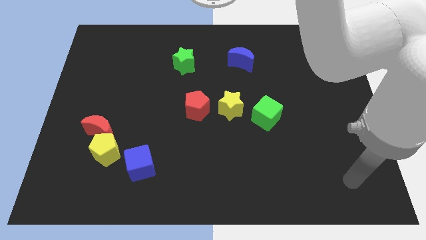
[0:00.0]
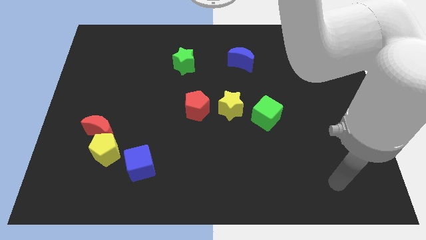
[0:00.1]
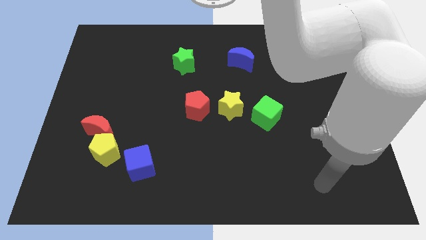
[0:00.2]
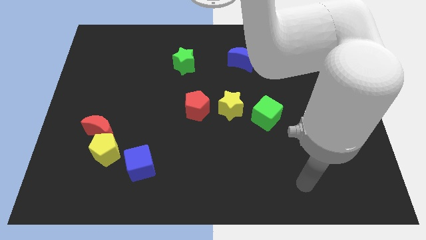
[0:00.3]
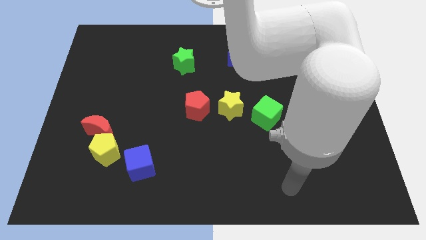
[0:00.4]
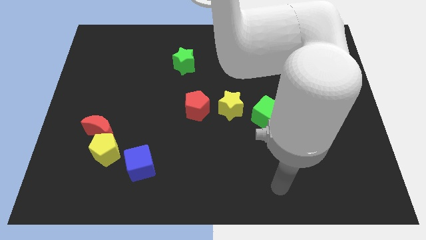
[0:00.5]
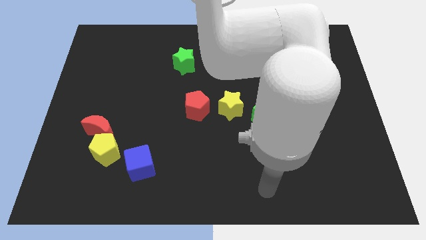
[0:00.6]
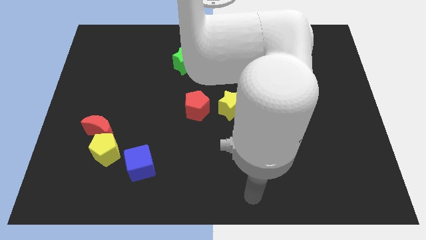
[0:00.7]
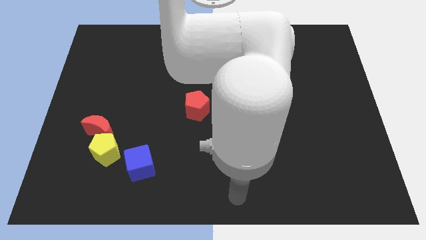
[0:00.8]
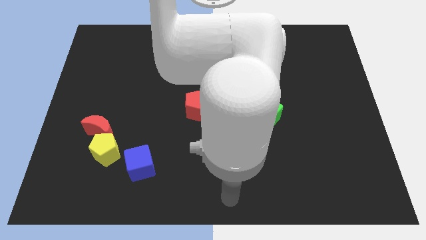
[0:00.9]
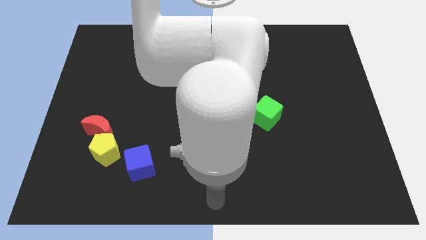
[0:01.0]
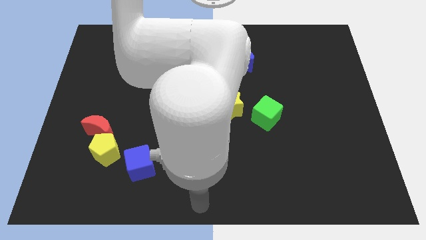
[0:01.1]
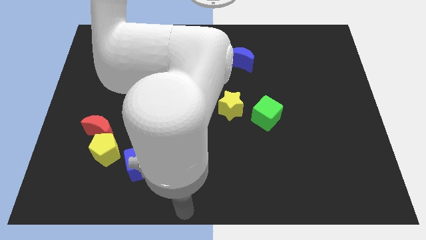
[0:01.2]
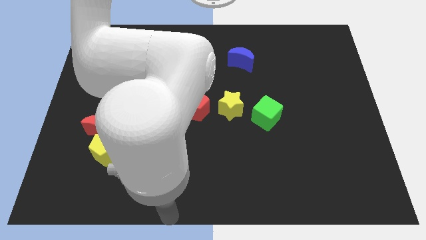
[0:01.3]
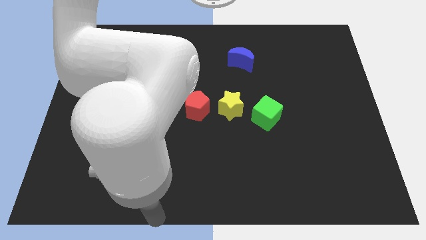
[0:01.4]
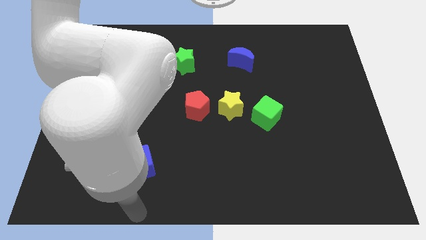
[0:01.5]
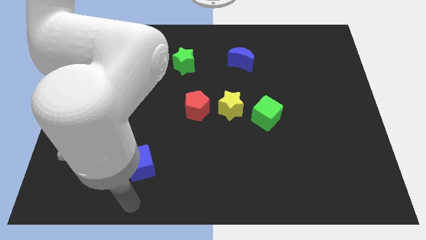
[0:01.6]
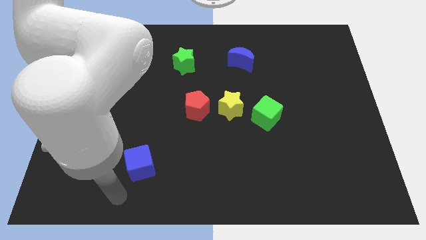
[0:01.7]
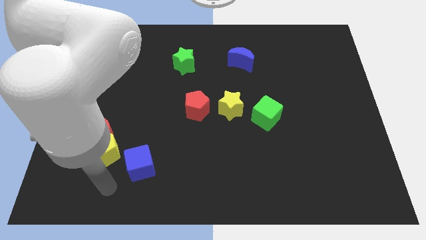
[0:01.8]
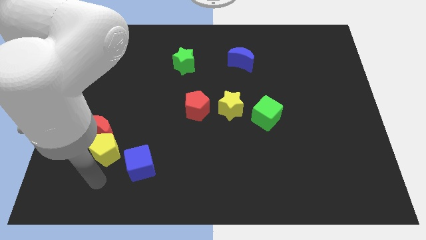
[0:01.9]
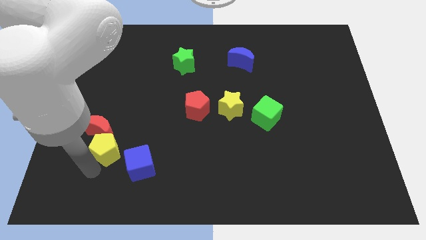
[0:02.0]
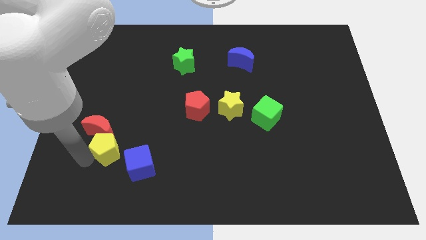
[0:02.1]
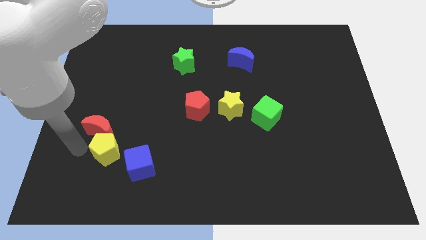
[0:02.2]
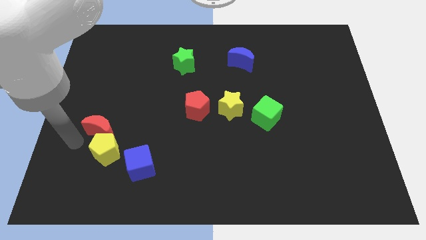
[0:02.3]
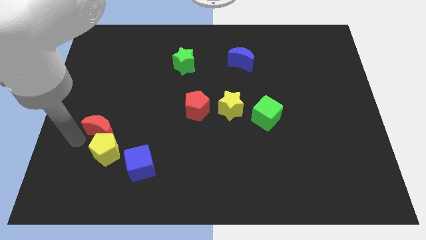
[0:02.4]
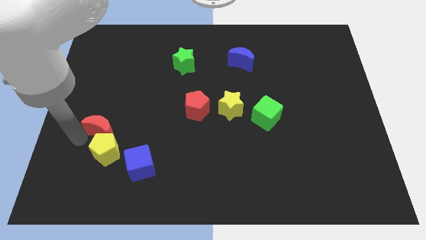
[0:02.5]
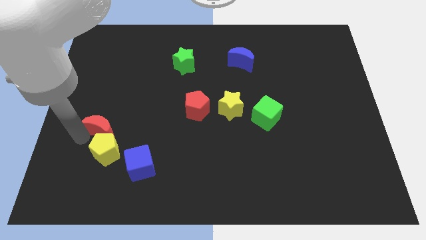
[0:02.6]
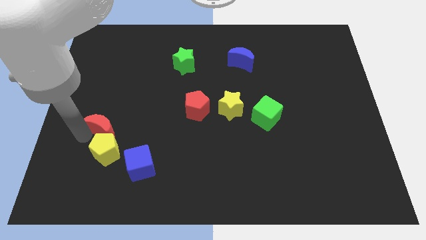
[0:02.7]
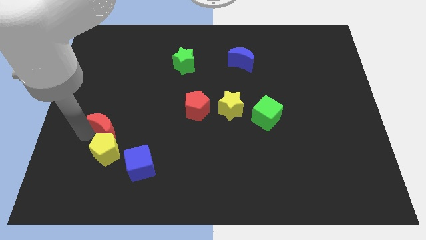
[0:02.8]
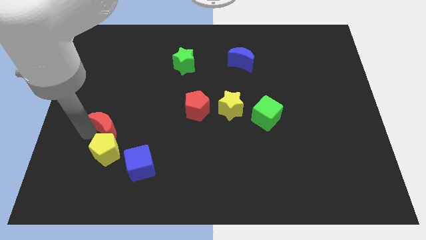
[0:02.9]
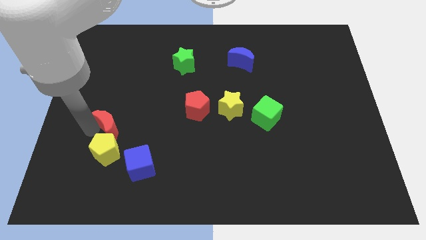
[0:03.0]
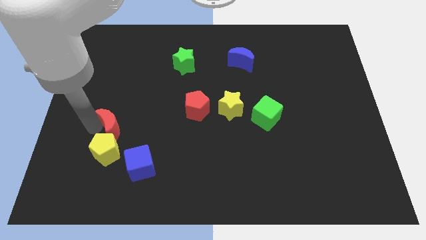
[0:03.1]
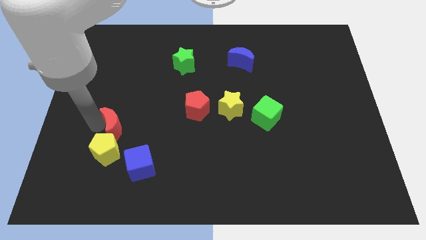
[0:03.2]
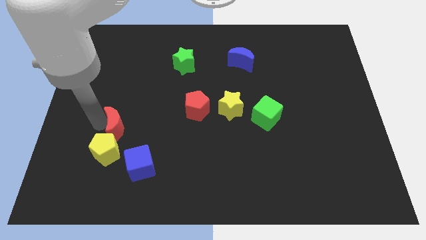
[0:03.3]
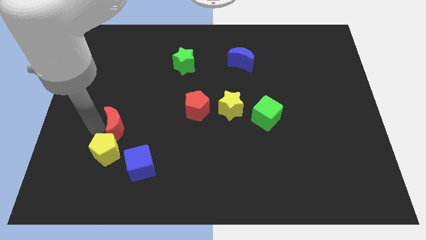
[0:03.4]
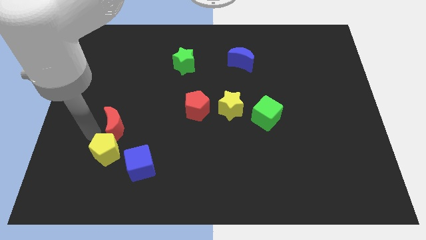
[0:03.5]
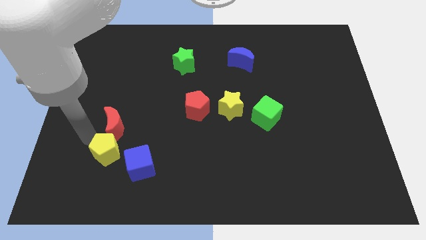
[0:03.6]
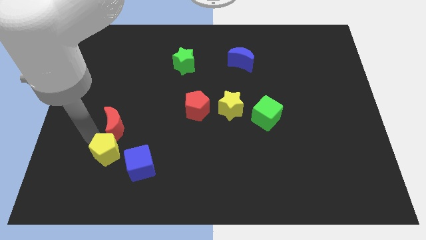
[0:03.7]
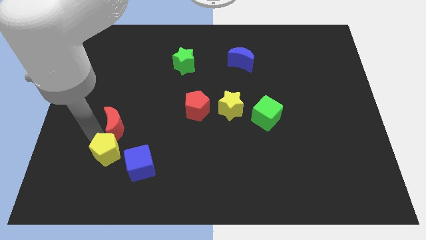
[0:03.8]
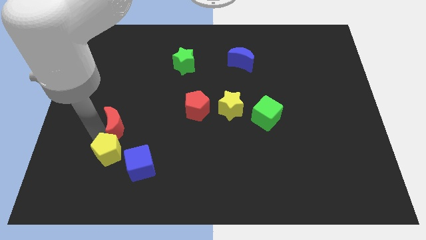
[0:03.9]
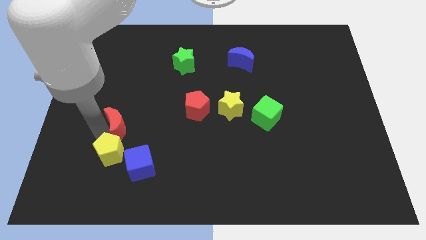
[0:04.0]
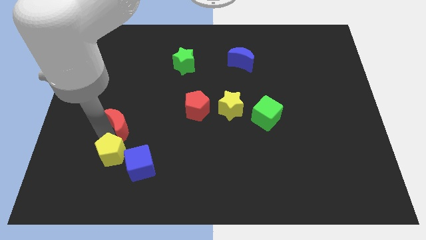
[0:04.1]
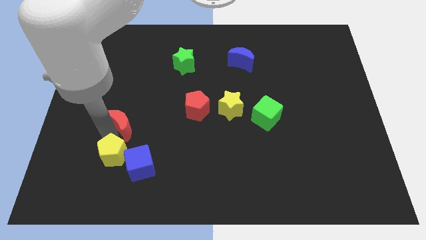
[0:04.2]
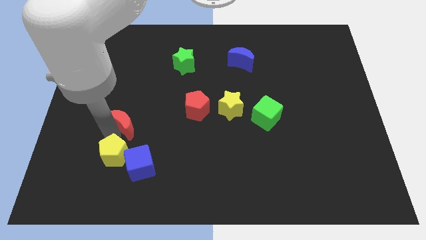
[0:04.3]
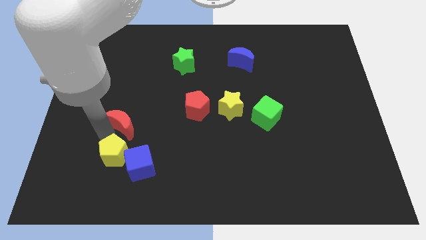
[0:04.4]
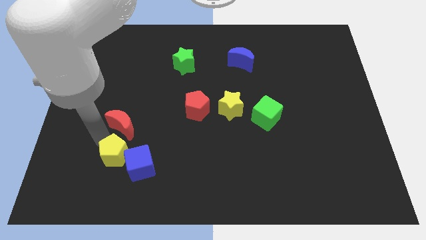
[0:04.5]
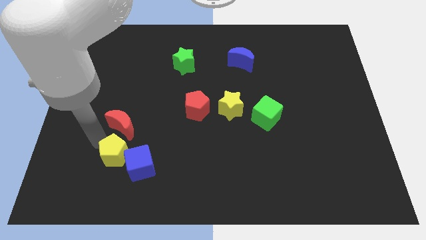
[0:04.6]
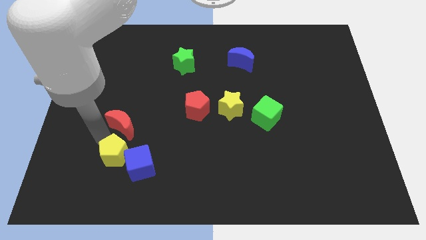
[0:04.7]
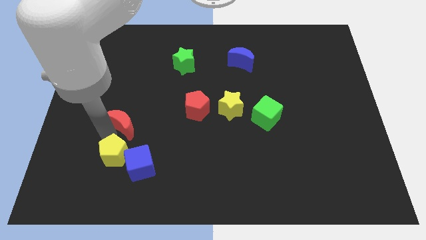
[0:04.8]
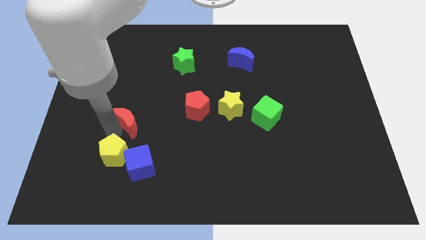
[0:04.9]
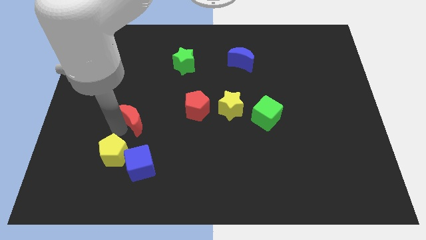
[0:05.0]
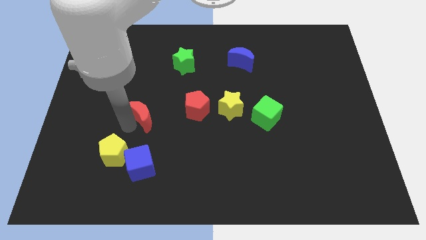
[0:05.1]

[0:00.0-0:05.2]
slide the red moon slightly up and to the right

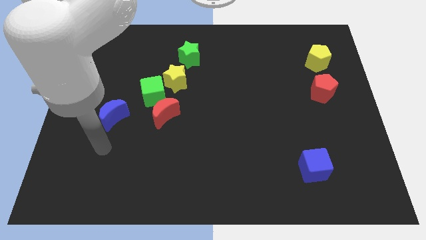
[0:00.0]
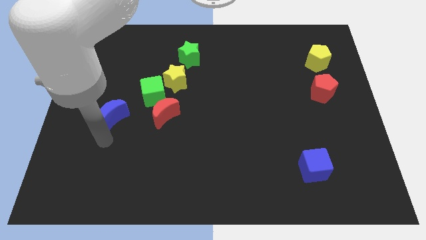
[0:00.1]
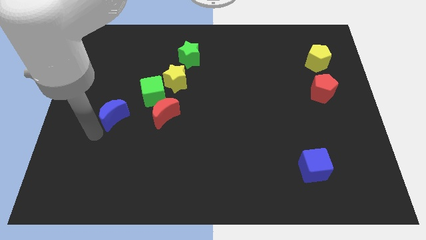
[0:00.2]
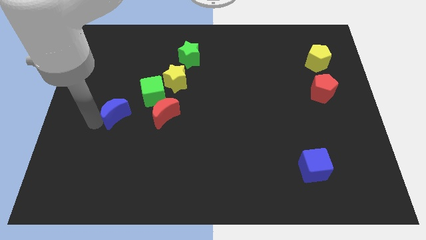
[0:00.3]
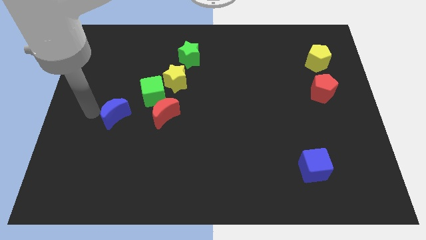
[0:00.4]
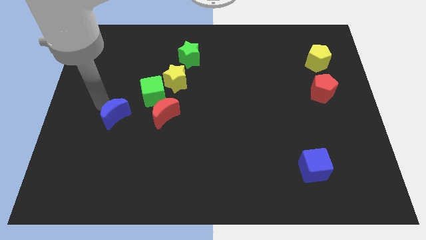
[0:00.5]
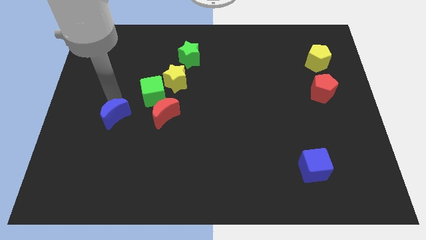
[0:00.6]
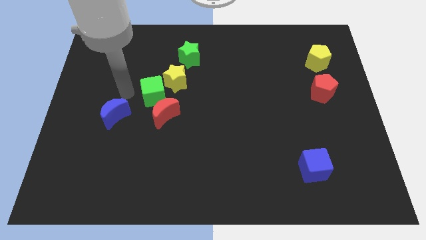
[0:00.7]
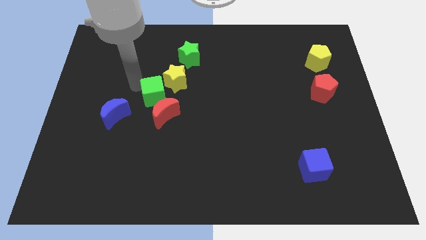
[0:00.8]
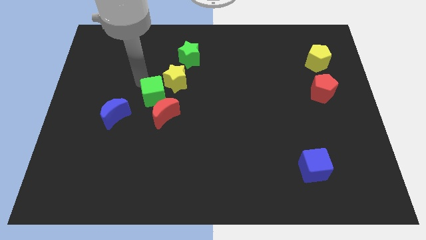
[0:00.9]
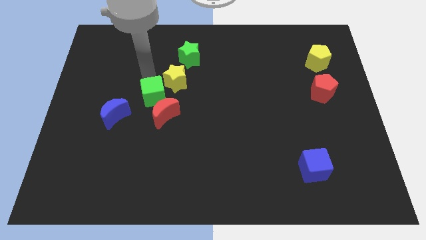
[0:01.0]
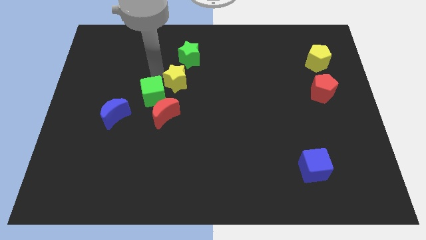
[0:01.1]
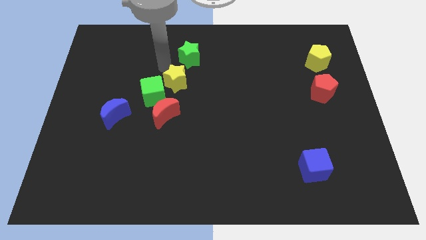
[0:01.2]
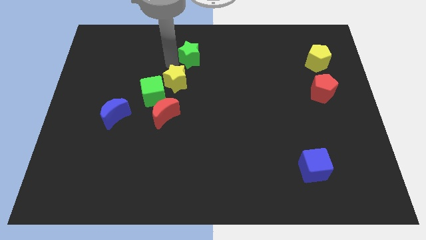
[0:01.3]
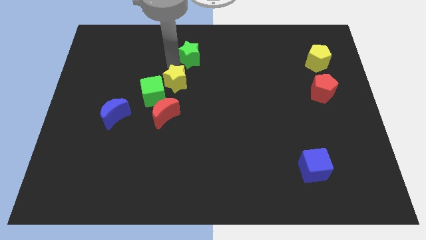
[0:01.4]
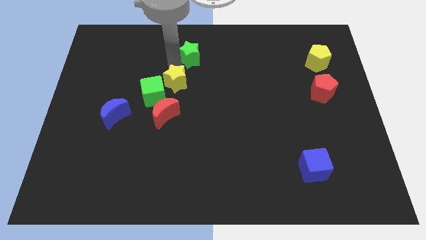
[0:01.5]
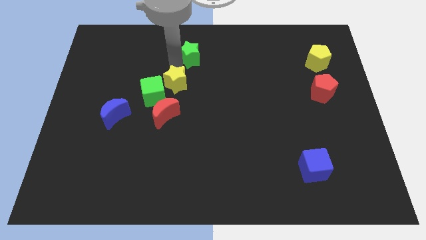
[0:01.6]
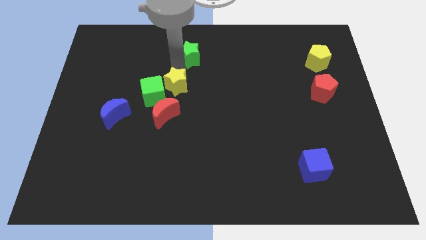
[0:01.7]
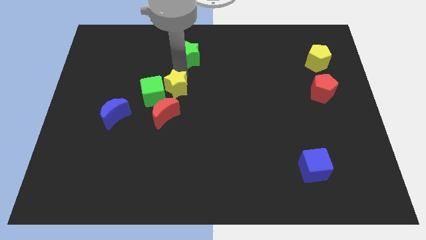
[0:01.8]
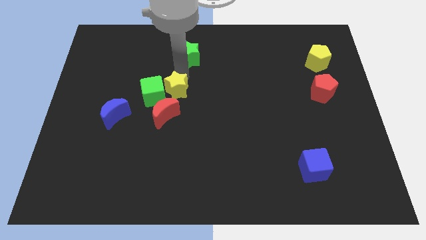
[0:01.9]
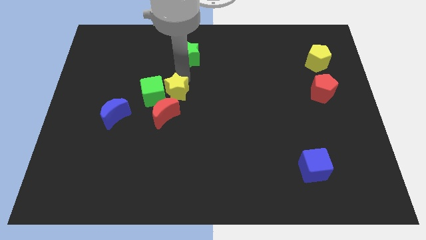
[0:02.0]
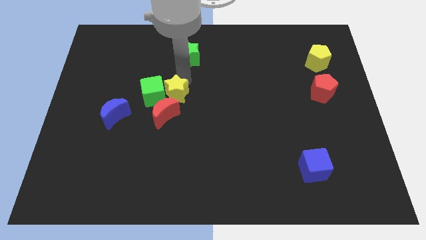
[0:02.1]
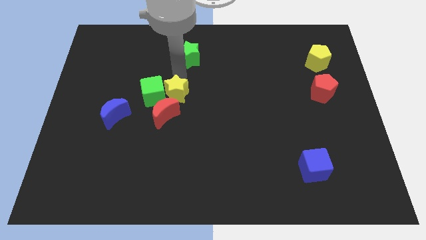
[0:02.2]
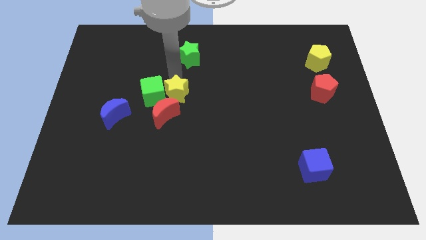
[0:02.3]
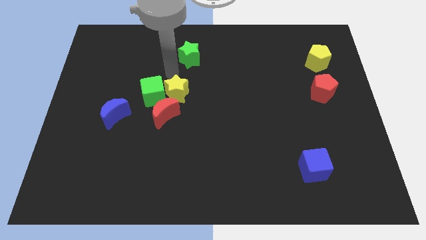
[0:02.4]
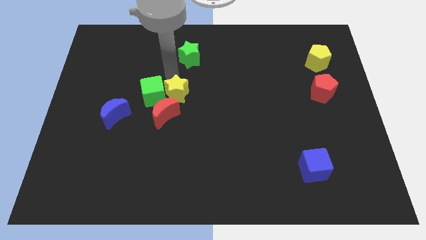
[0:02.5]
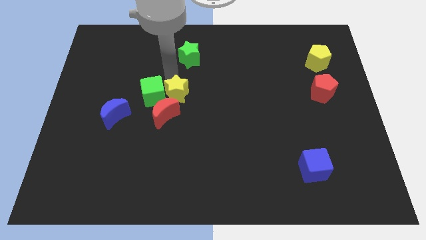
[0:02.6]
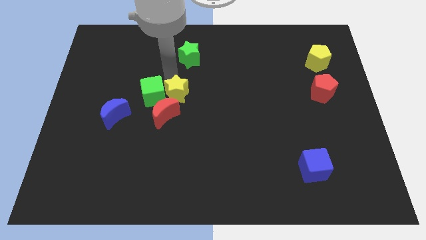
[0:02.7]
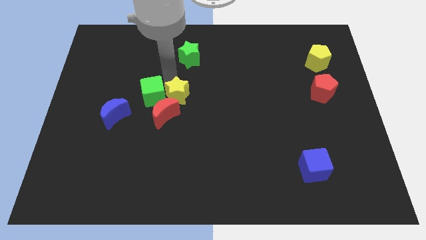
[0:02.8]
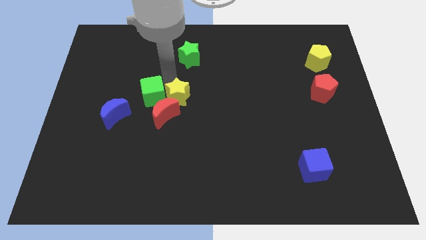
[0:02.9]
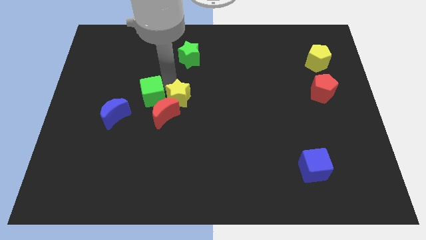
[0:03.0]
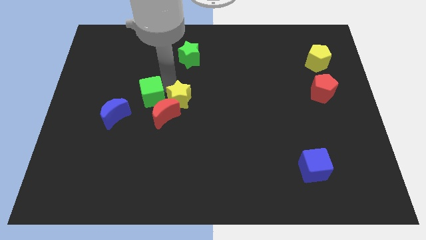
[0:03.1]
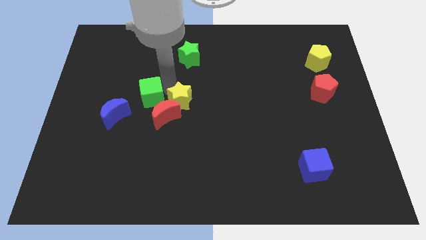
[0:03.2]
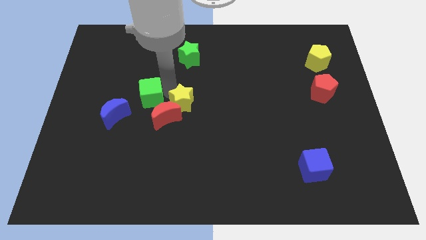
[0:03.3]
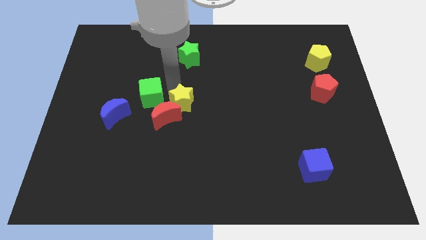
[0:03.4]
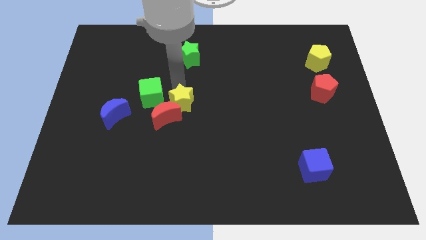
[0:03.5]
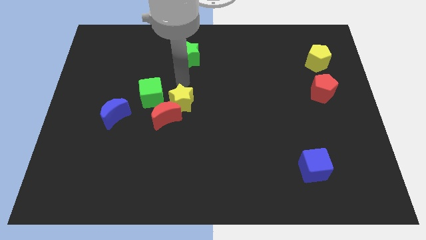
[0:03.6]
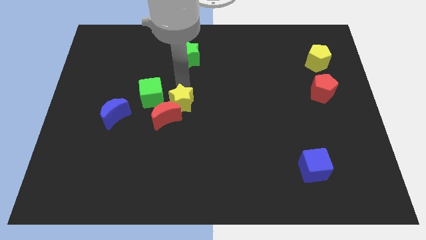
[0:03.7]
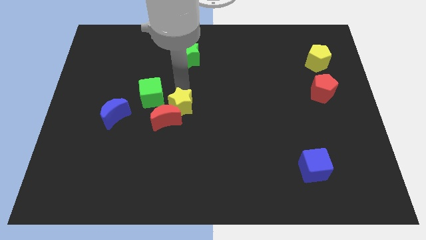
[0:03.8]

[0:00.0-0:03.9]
slightly move the yellow star downwards
